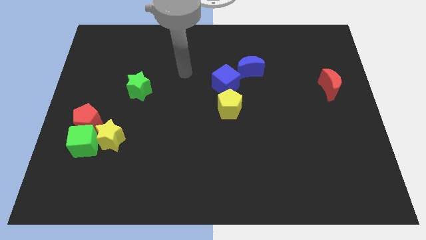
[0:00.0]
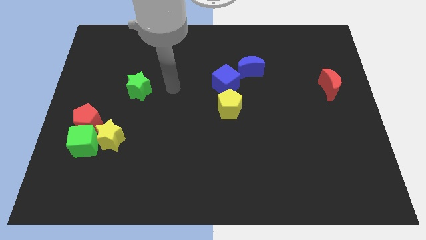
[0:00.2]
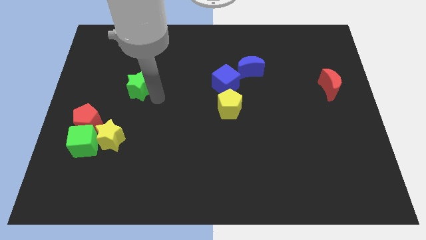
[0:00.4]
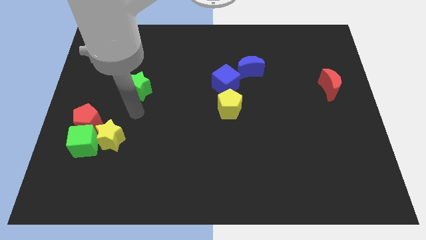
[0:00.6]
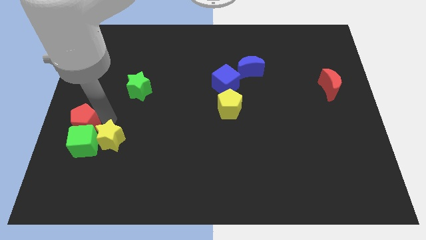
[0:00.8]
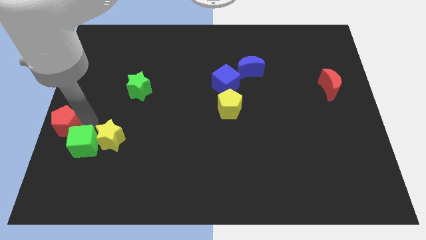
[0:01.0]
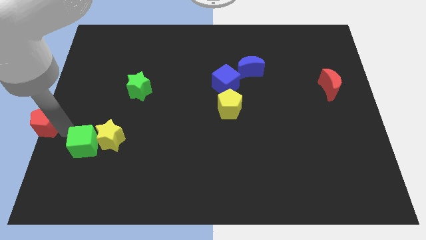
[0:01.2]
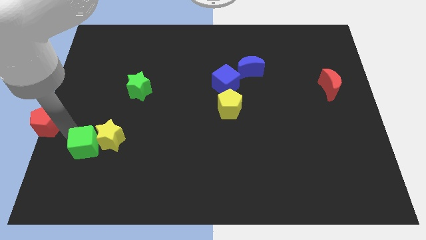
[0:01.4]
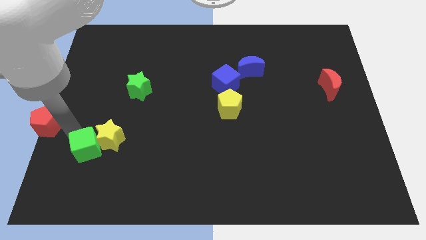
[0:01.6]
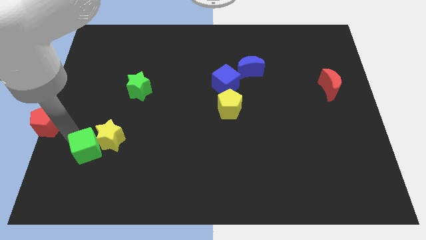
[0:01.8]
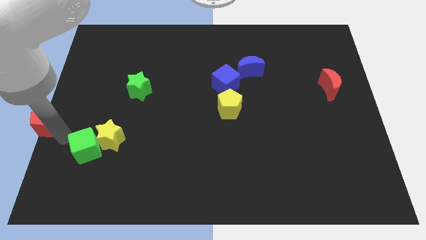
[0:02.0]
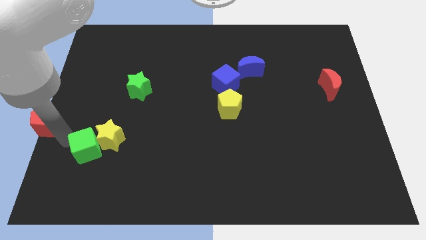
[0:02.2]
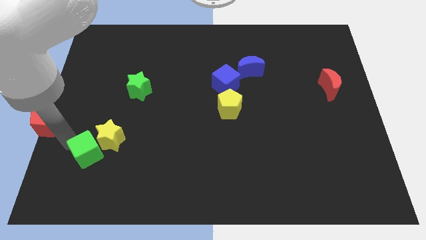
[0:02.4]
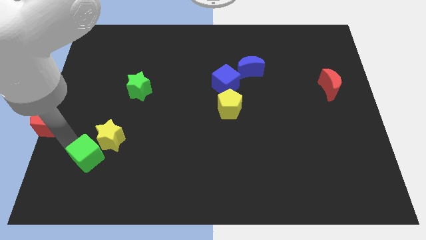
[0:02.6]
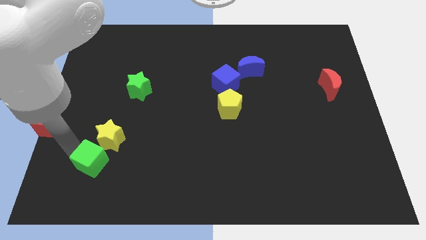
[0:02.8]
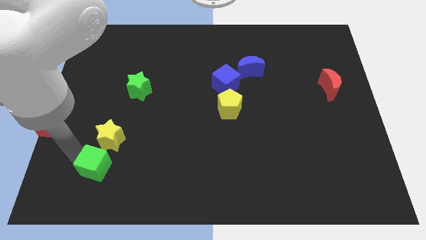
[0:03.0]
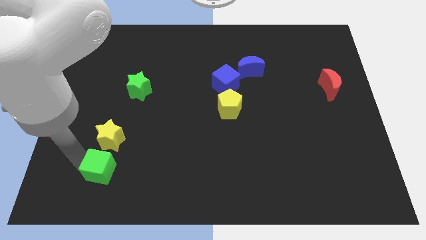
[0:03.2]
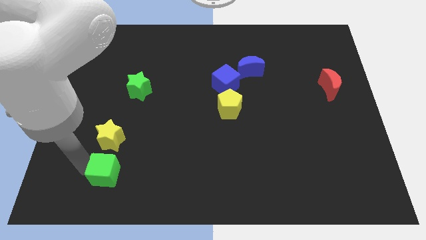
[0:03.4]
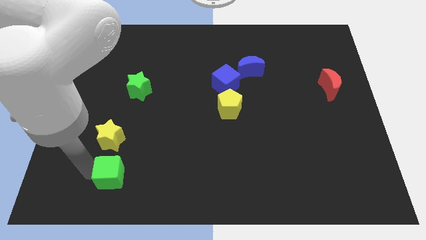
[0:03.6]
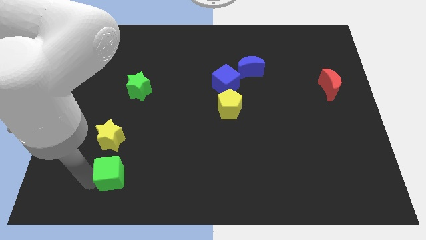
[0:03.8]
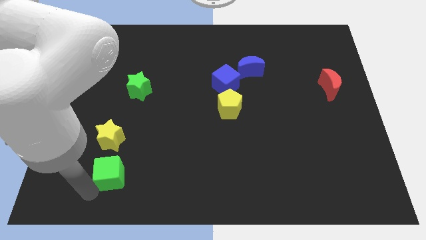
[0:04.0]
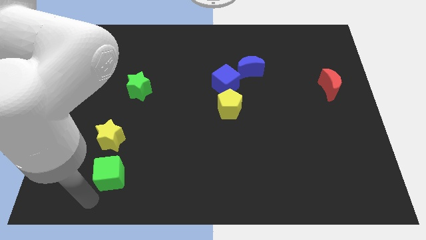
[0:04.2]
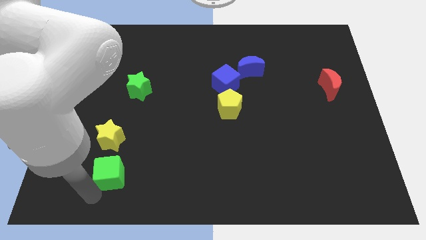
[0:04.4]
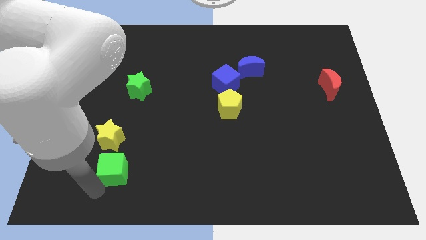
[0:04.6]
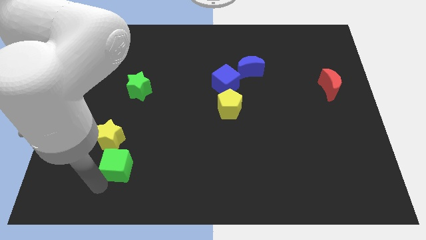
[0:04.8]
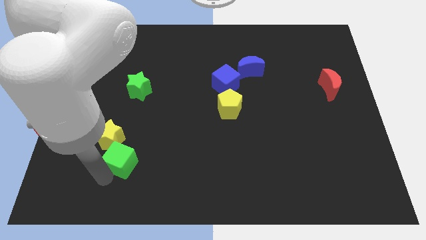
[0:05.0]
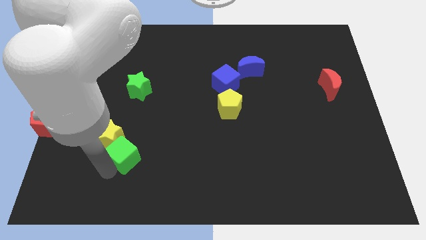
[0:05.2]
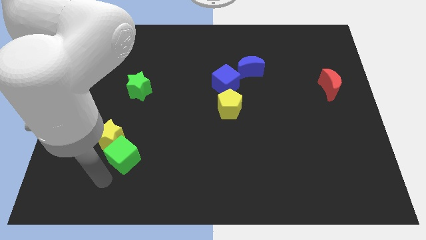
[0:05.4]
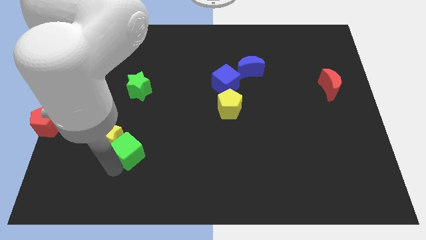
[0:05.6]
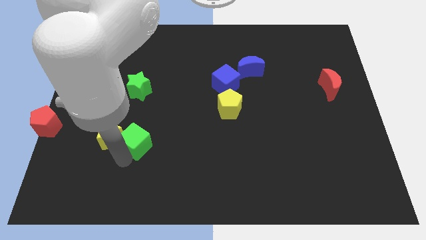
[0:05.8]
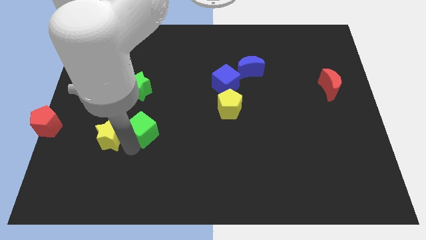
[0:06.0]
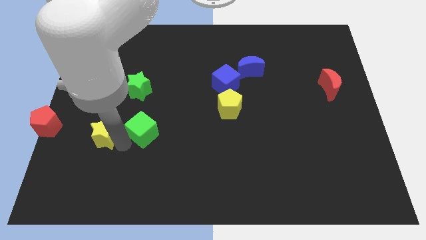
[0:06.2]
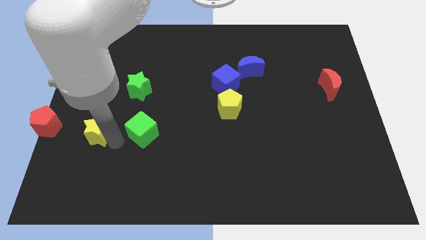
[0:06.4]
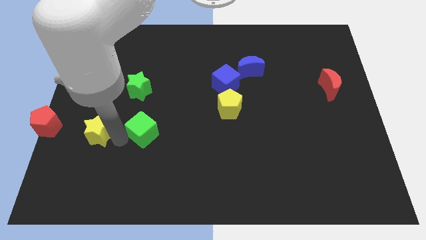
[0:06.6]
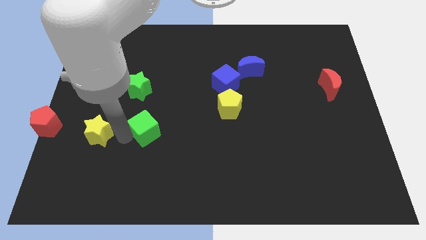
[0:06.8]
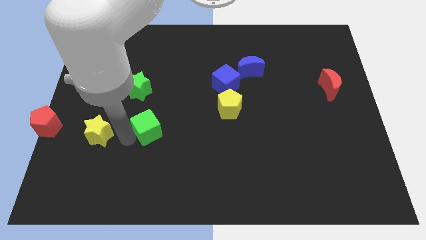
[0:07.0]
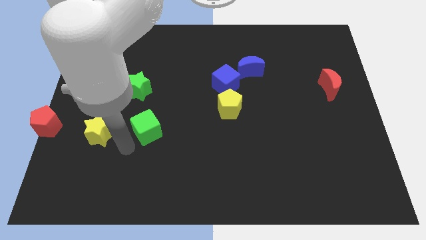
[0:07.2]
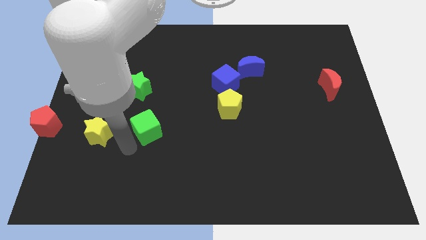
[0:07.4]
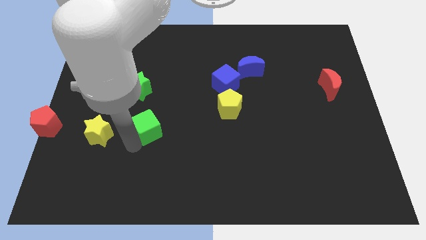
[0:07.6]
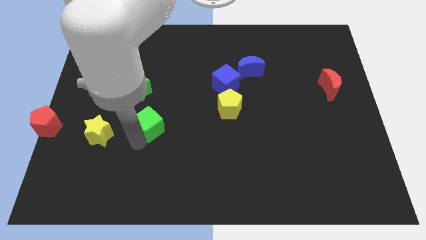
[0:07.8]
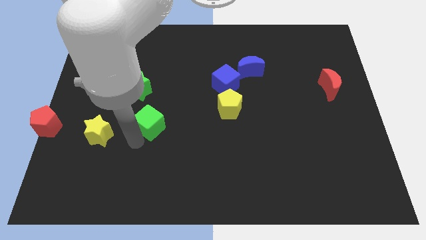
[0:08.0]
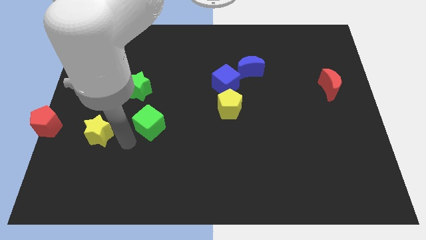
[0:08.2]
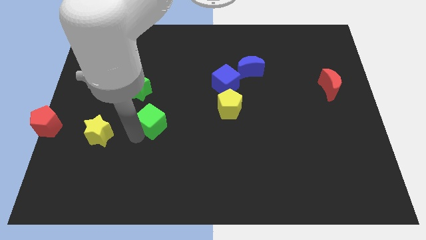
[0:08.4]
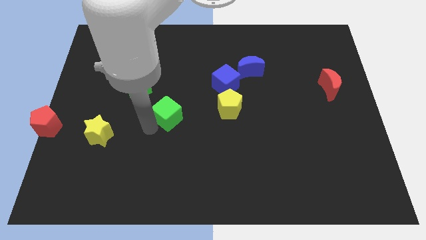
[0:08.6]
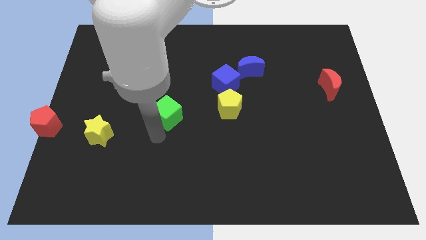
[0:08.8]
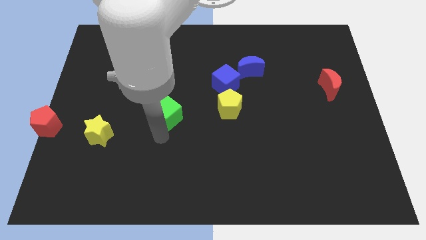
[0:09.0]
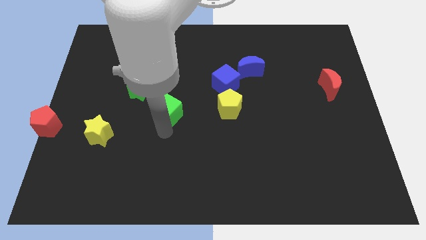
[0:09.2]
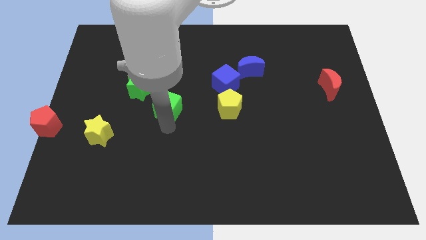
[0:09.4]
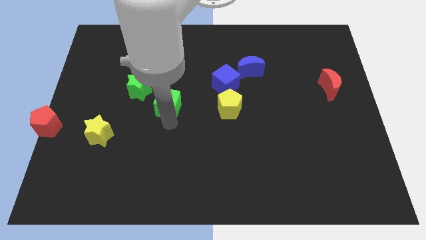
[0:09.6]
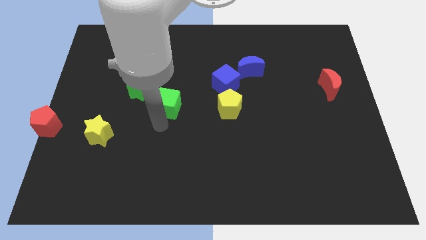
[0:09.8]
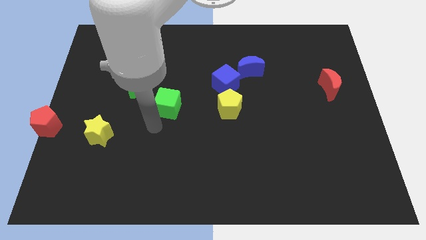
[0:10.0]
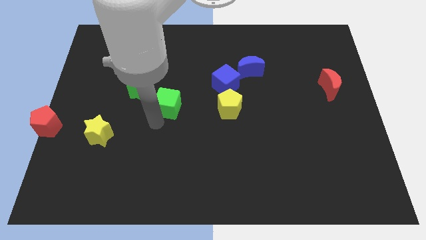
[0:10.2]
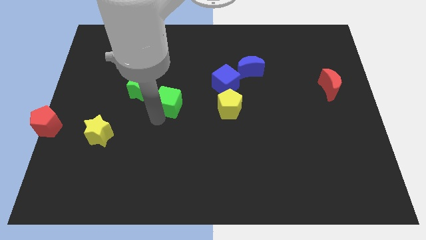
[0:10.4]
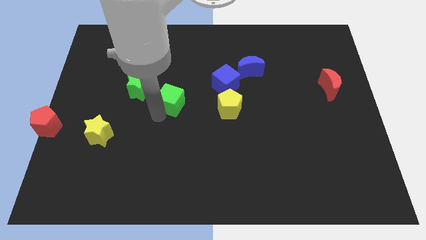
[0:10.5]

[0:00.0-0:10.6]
slide the green cube up and to the right diagonally

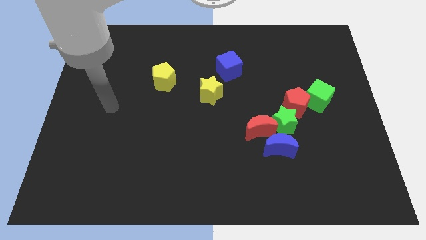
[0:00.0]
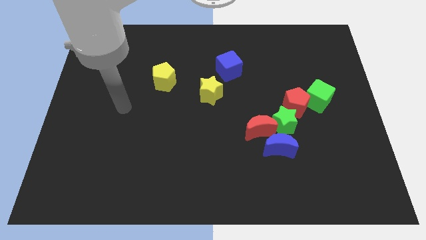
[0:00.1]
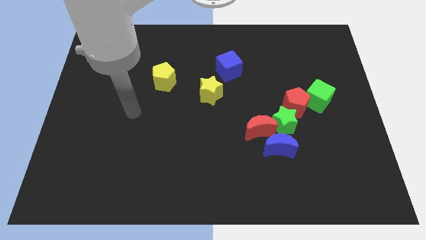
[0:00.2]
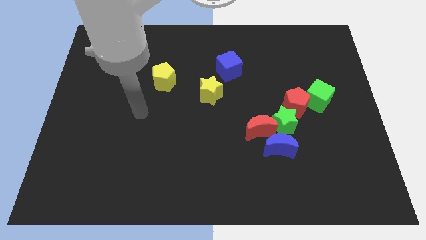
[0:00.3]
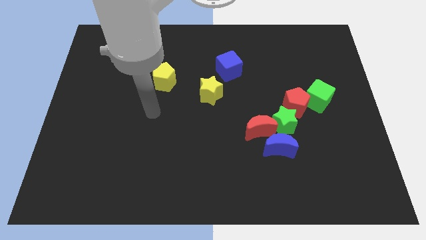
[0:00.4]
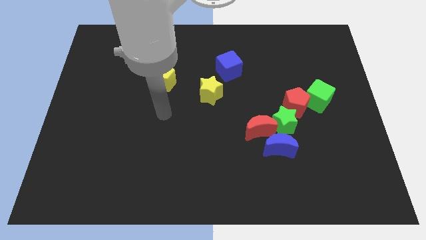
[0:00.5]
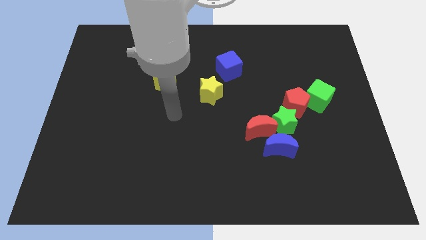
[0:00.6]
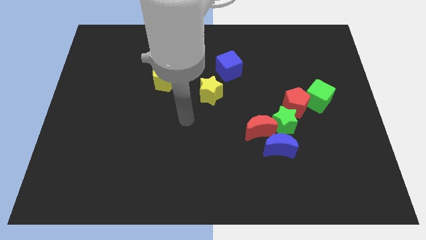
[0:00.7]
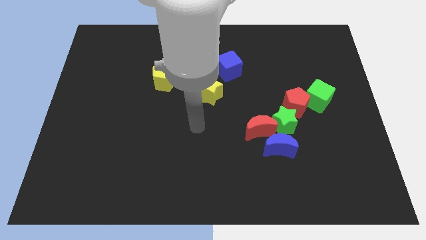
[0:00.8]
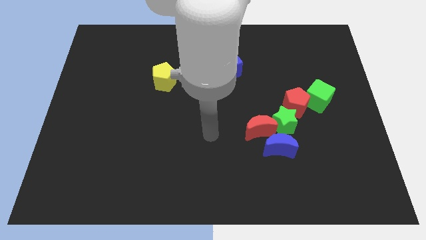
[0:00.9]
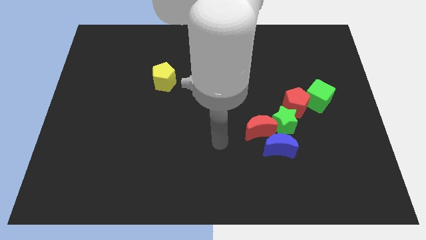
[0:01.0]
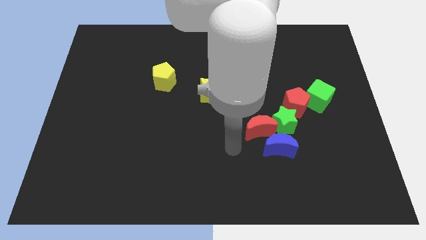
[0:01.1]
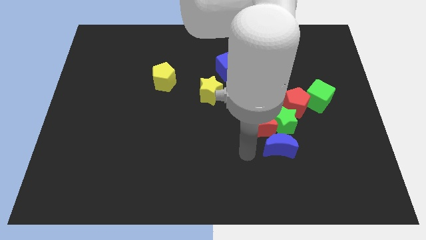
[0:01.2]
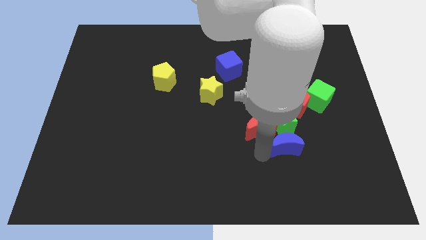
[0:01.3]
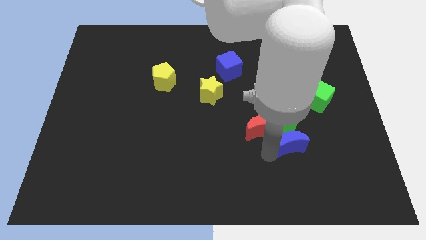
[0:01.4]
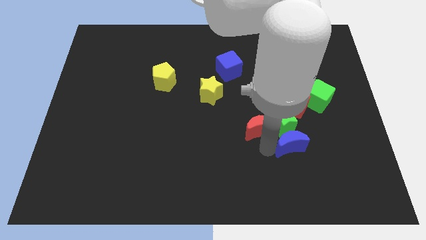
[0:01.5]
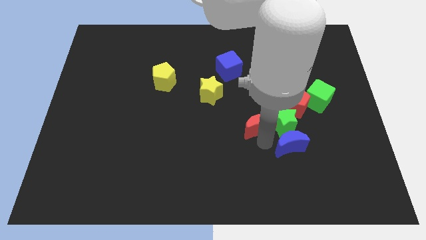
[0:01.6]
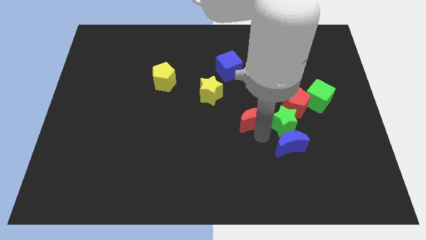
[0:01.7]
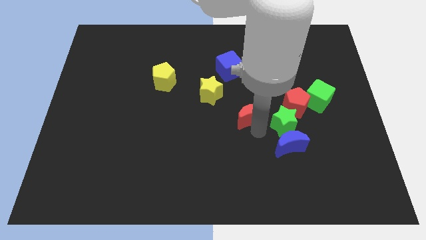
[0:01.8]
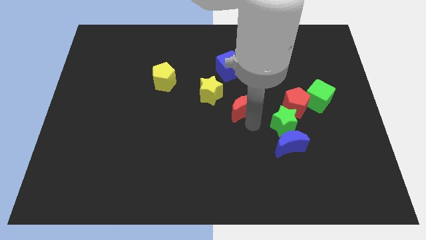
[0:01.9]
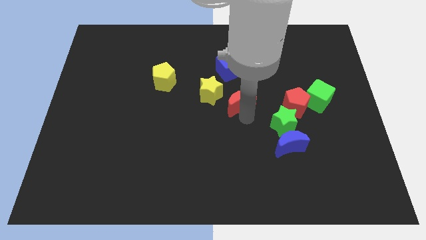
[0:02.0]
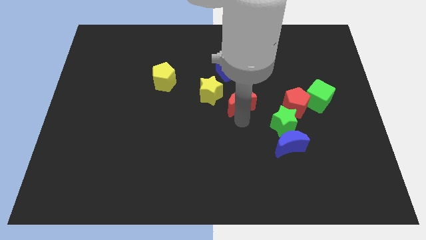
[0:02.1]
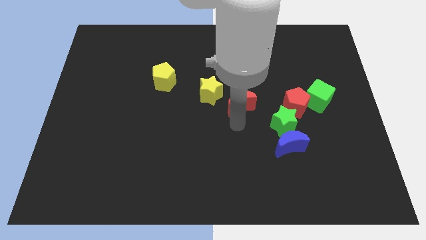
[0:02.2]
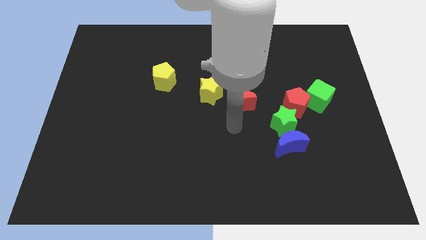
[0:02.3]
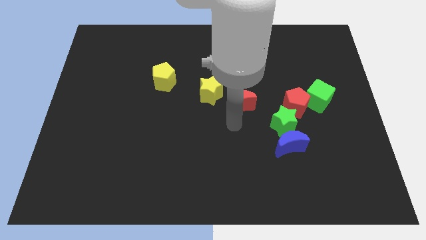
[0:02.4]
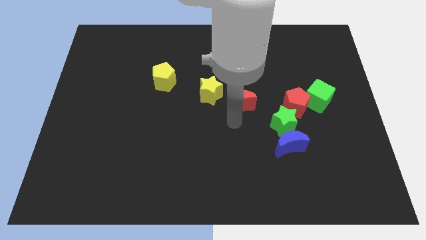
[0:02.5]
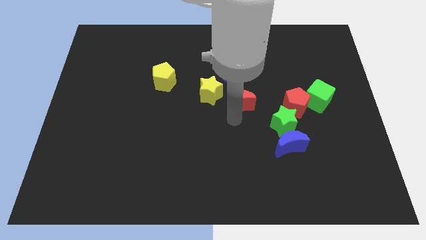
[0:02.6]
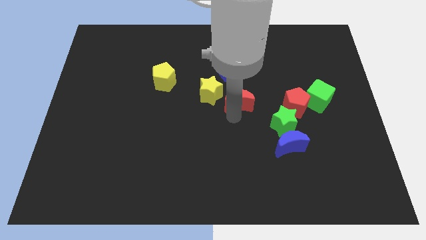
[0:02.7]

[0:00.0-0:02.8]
push the red moon upwards a bit
